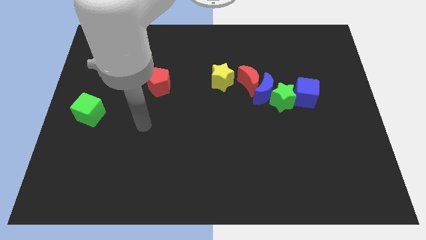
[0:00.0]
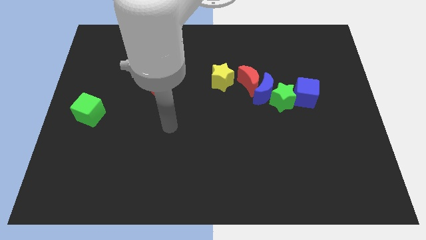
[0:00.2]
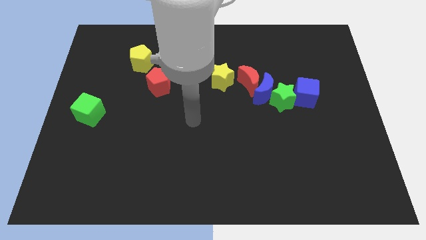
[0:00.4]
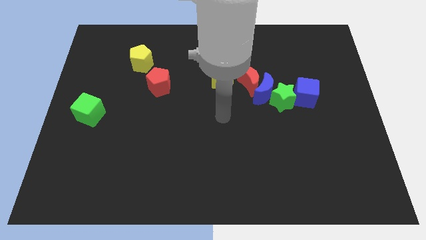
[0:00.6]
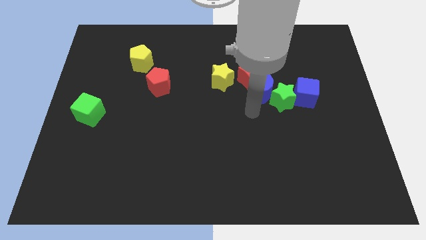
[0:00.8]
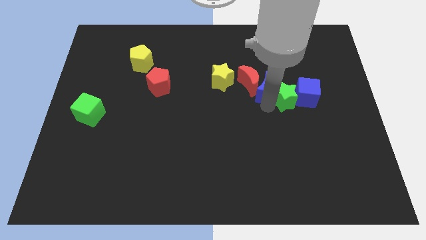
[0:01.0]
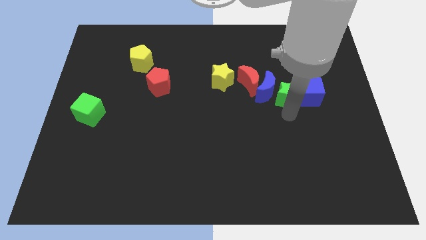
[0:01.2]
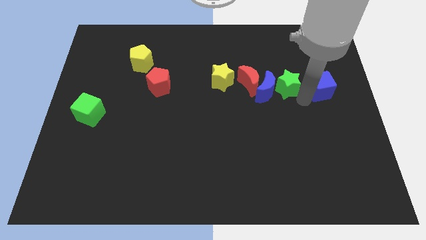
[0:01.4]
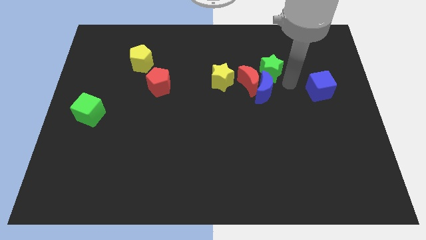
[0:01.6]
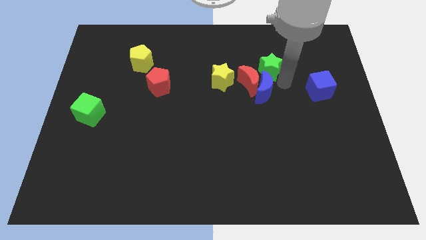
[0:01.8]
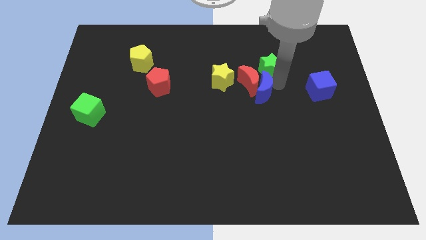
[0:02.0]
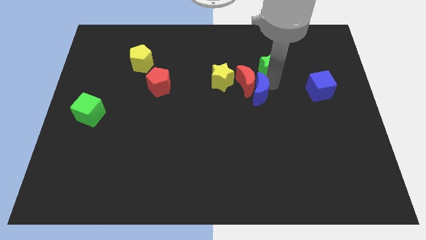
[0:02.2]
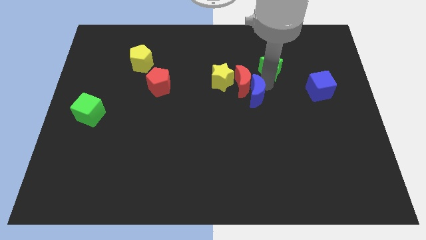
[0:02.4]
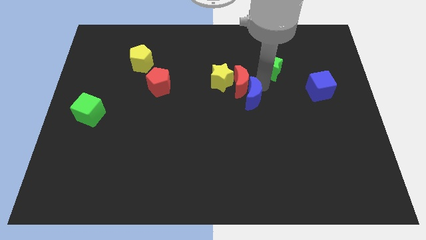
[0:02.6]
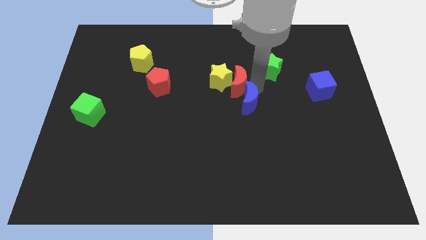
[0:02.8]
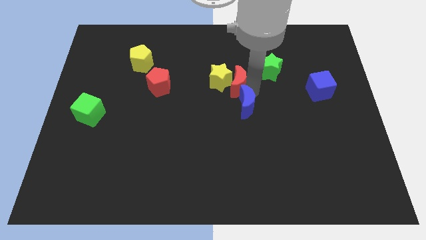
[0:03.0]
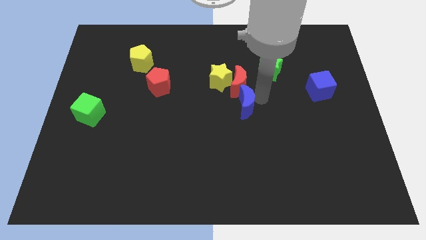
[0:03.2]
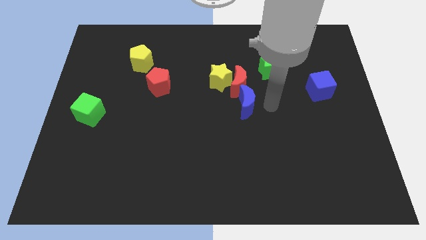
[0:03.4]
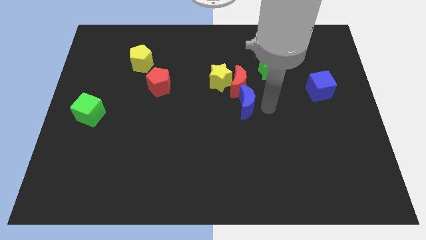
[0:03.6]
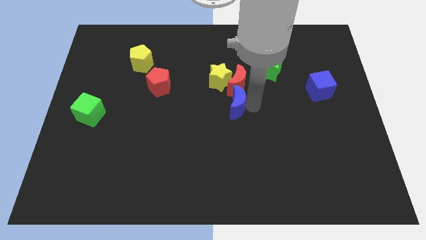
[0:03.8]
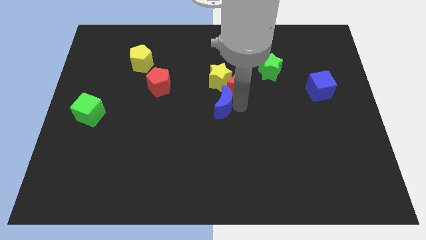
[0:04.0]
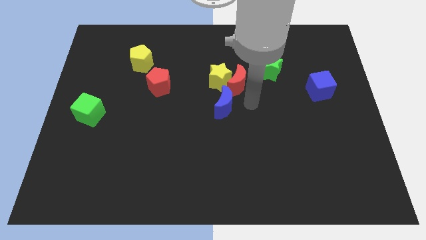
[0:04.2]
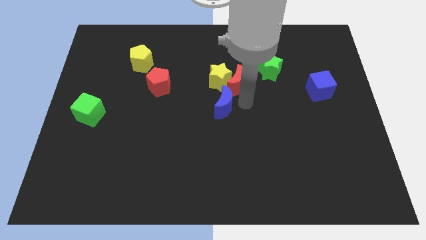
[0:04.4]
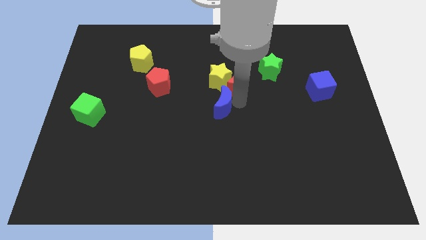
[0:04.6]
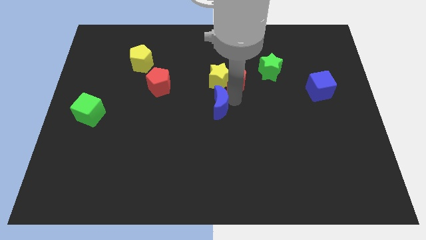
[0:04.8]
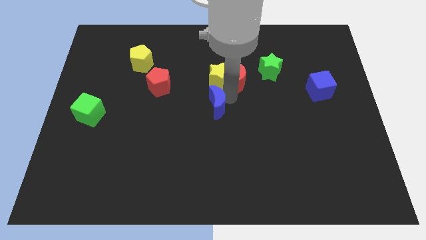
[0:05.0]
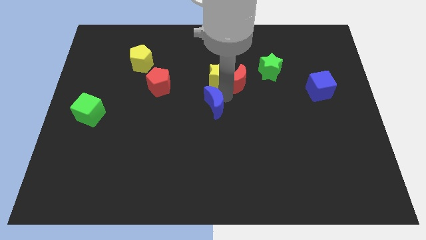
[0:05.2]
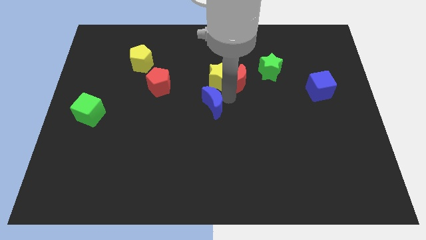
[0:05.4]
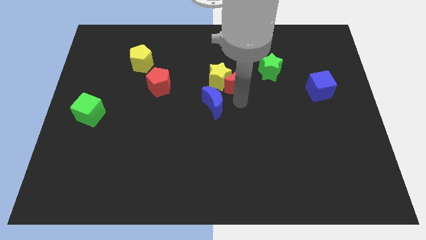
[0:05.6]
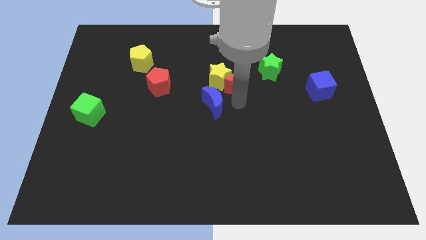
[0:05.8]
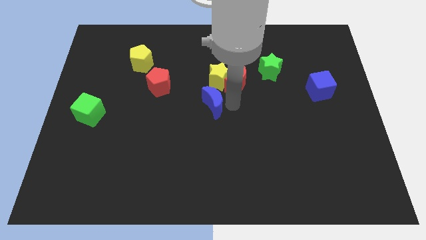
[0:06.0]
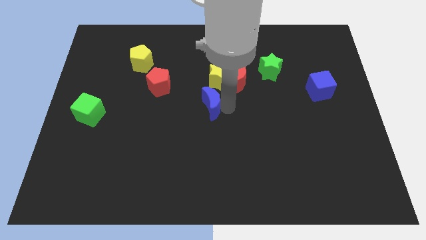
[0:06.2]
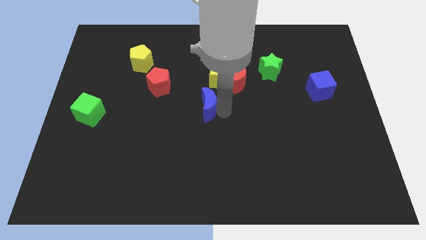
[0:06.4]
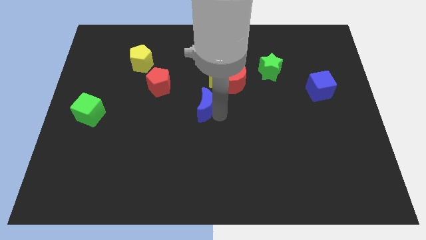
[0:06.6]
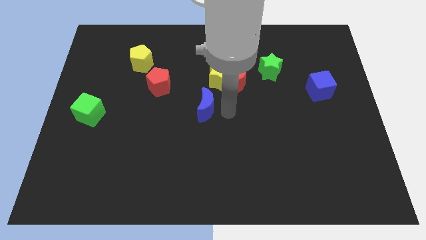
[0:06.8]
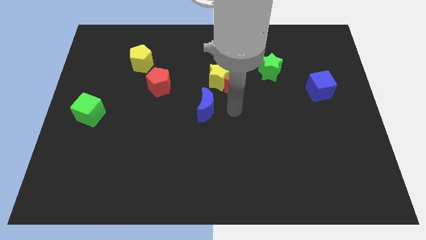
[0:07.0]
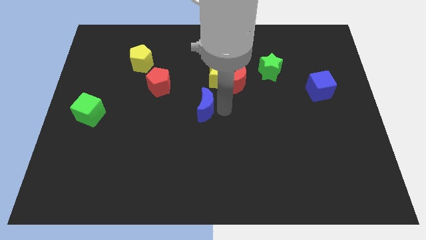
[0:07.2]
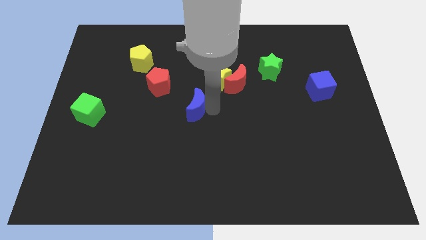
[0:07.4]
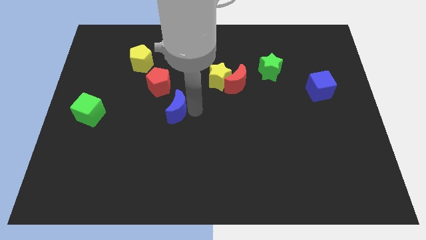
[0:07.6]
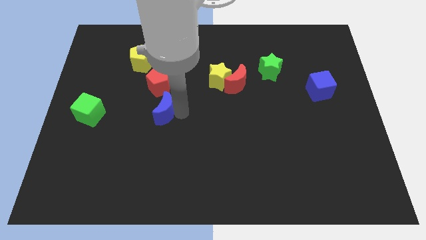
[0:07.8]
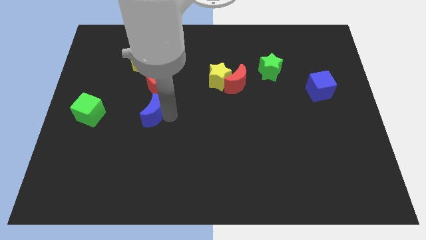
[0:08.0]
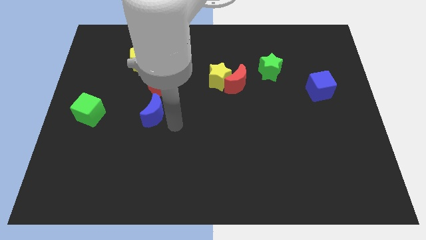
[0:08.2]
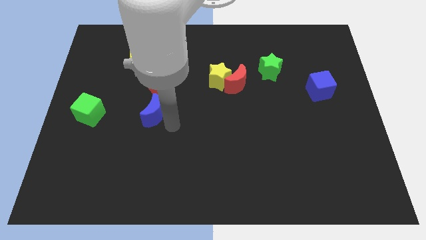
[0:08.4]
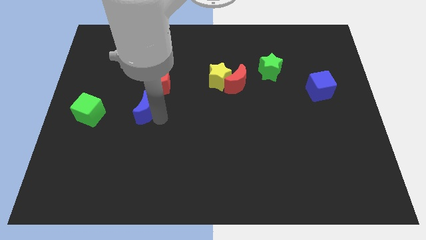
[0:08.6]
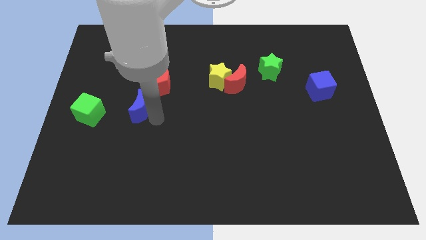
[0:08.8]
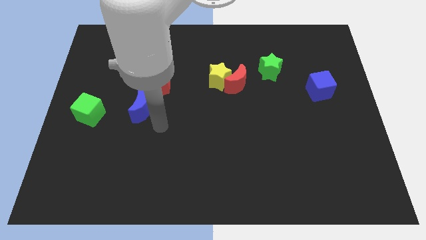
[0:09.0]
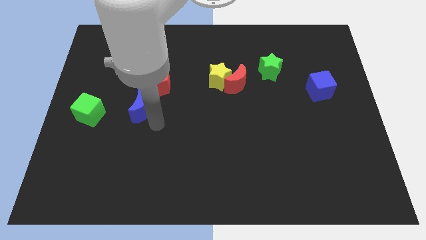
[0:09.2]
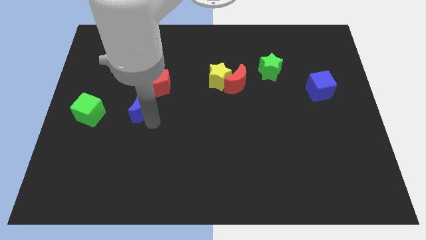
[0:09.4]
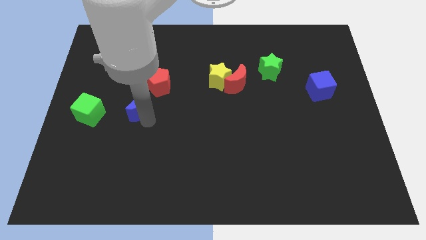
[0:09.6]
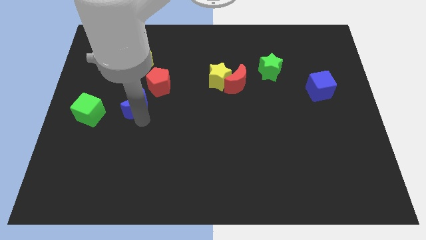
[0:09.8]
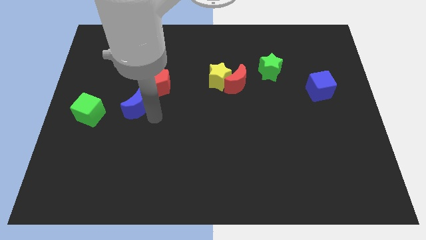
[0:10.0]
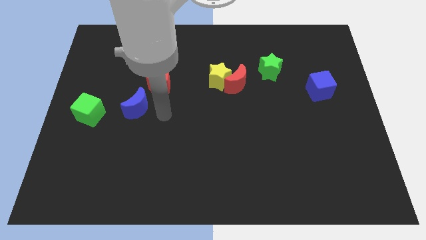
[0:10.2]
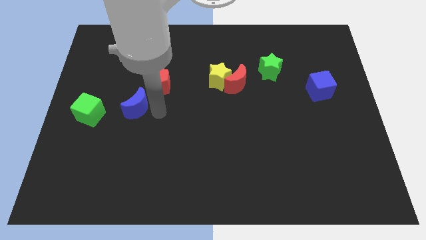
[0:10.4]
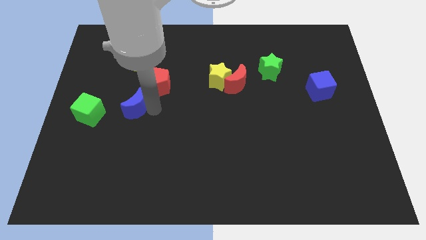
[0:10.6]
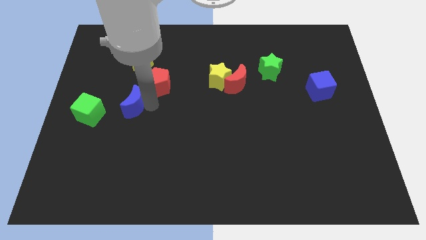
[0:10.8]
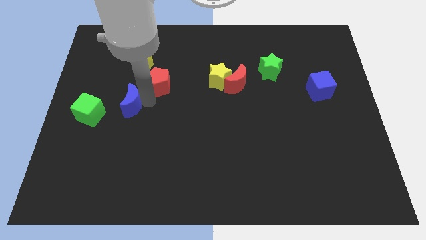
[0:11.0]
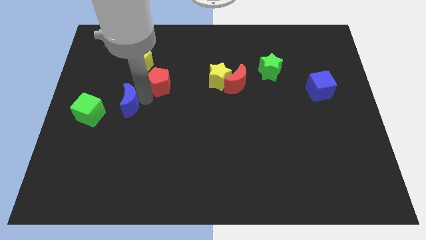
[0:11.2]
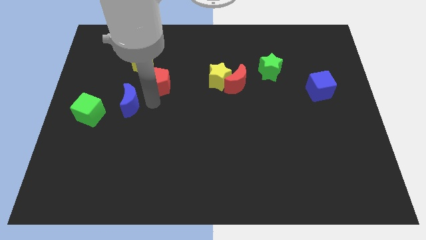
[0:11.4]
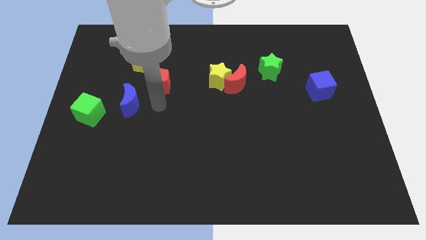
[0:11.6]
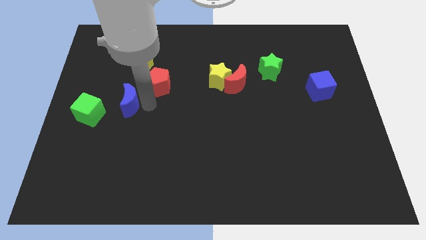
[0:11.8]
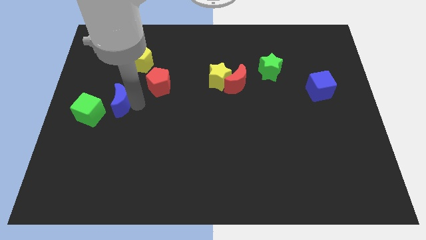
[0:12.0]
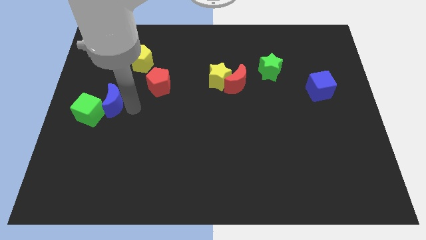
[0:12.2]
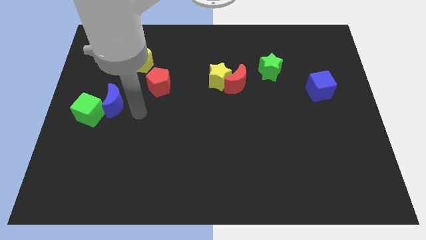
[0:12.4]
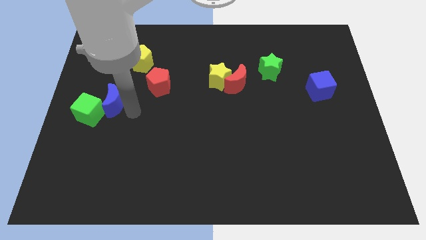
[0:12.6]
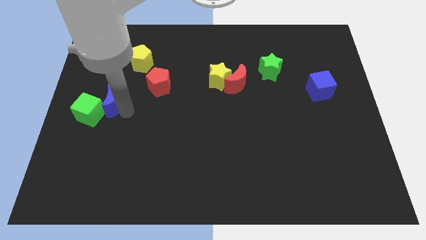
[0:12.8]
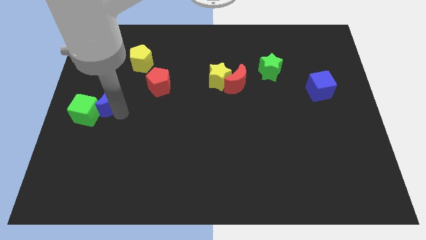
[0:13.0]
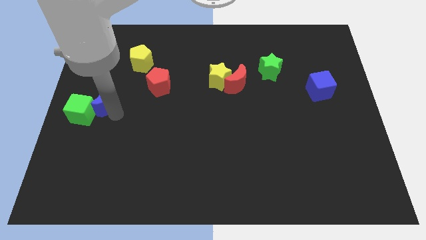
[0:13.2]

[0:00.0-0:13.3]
push the blue moon to the center left
